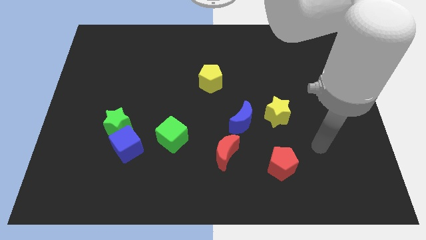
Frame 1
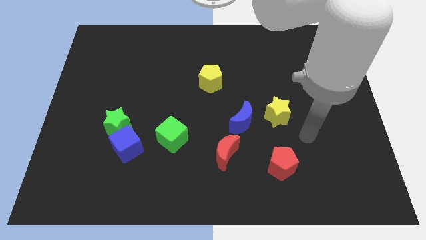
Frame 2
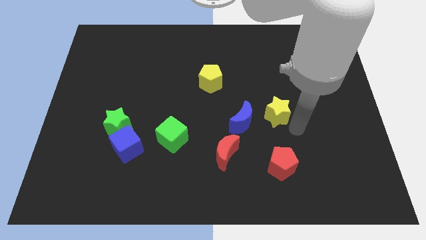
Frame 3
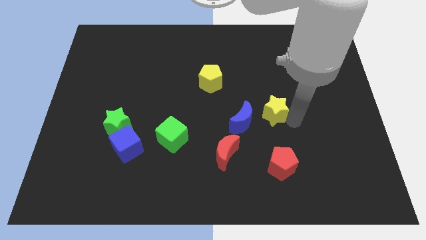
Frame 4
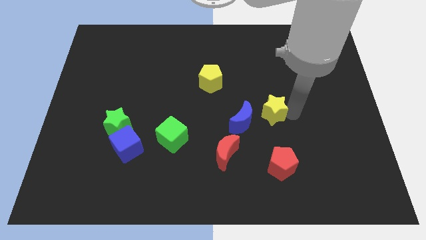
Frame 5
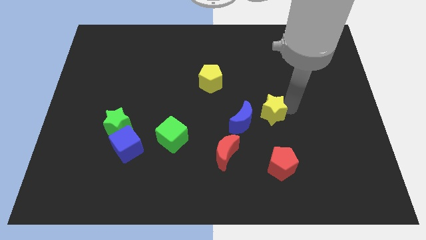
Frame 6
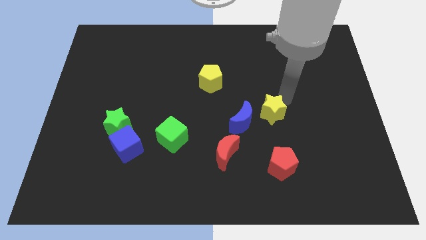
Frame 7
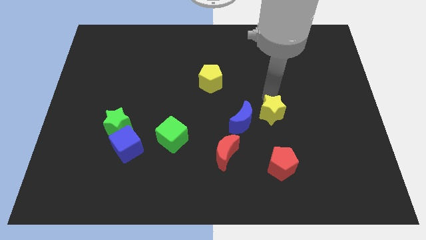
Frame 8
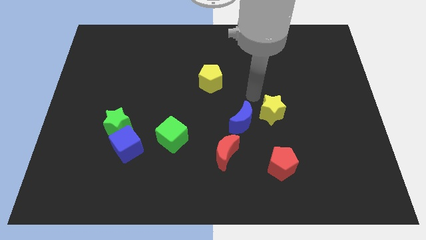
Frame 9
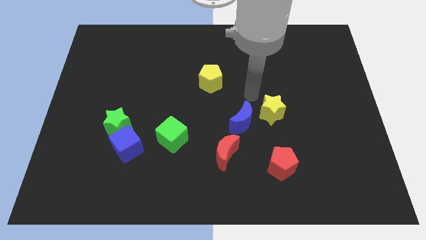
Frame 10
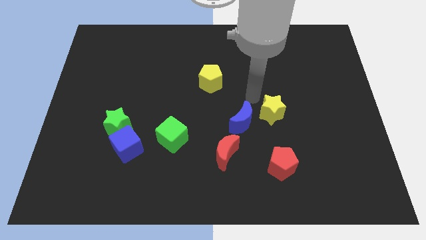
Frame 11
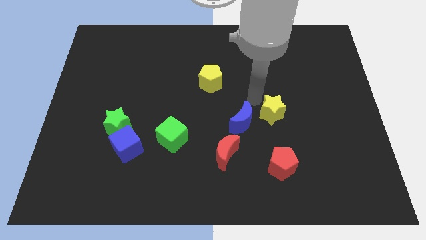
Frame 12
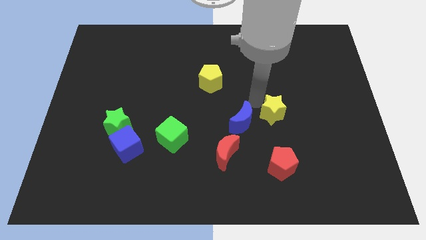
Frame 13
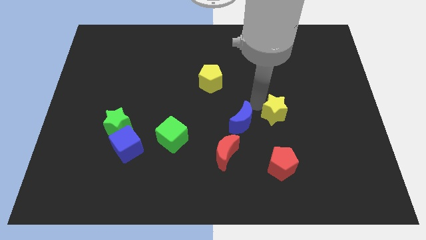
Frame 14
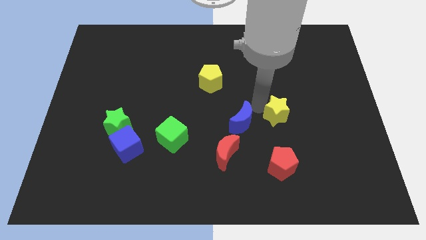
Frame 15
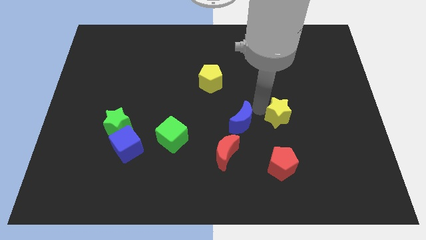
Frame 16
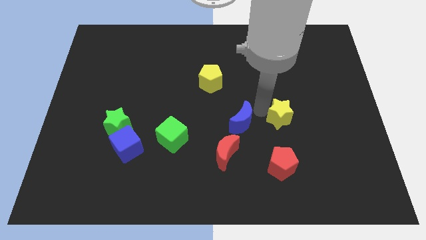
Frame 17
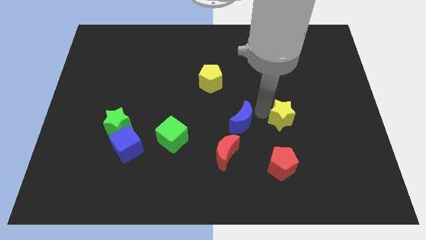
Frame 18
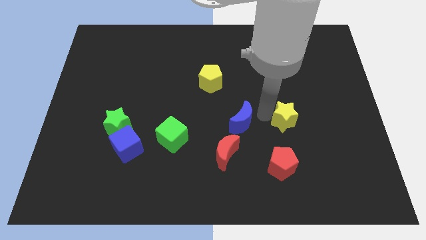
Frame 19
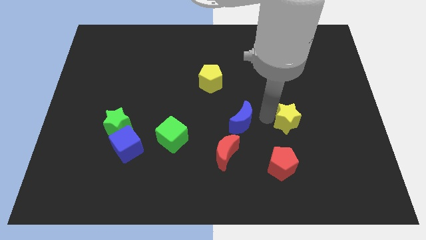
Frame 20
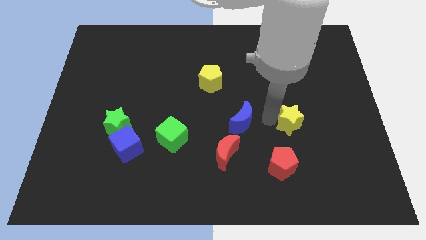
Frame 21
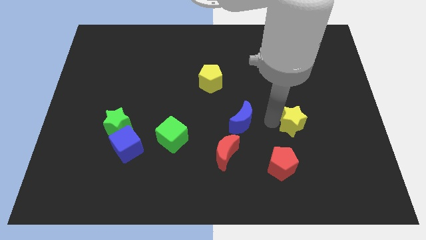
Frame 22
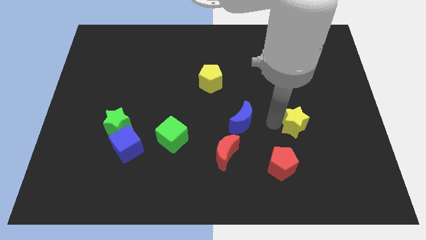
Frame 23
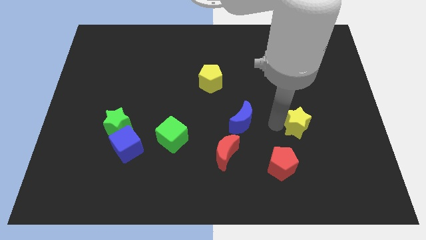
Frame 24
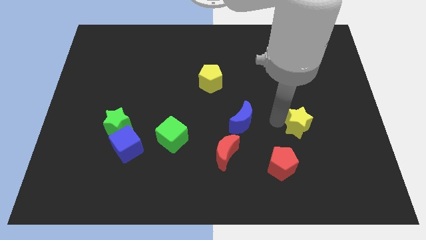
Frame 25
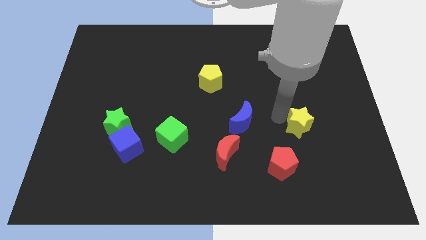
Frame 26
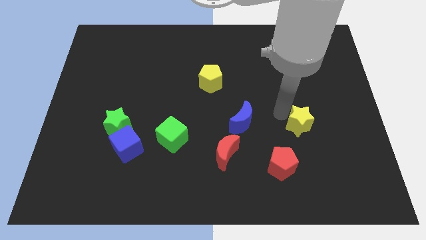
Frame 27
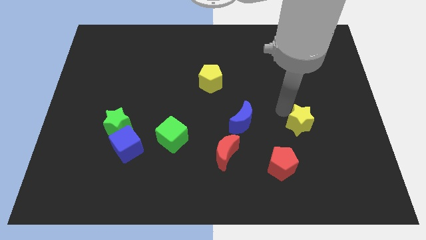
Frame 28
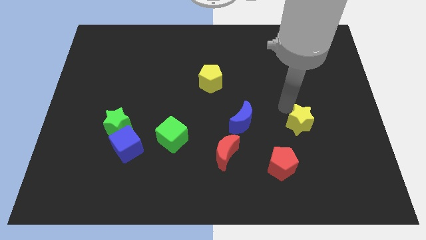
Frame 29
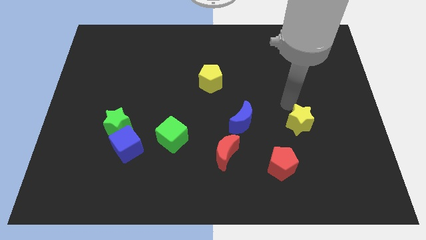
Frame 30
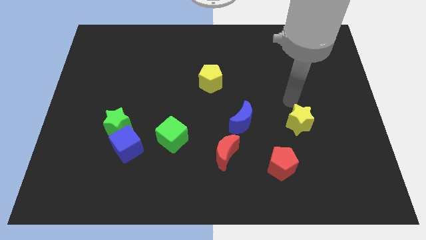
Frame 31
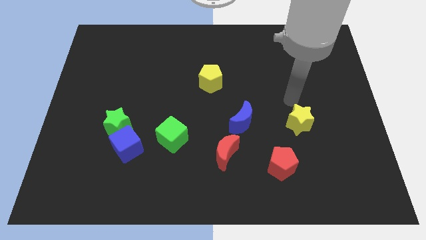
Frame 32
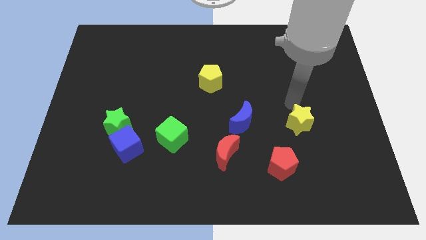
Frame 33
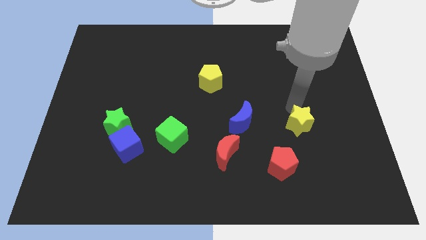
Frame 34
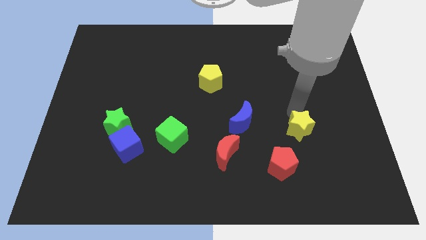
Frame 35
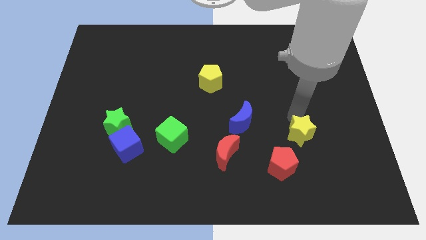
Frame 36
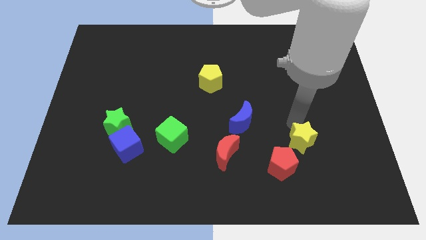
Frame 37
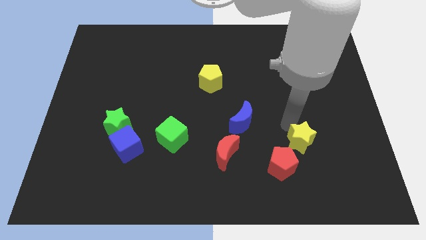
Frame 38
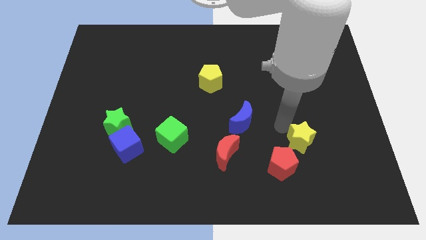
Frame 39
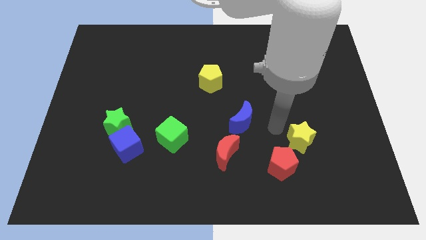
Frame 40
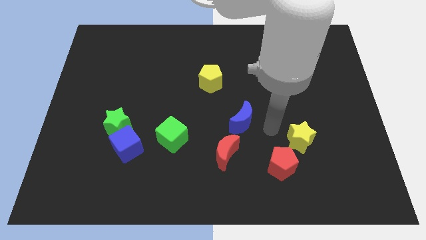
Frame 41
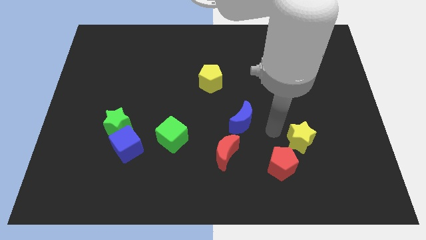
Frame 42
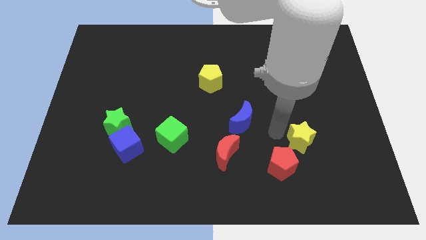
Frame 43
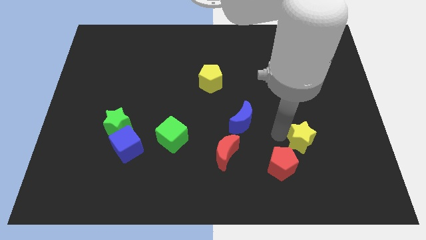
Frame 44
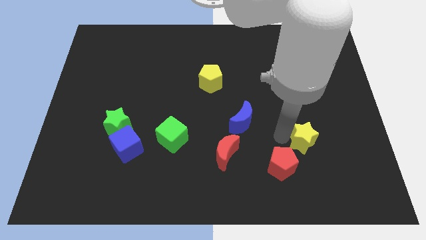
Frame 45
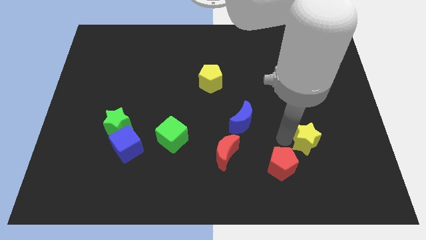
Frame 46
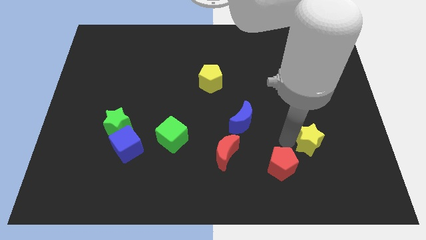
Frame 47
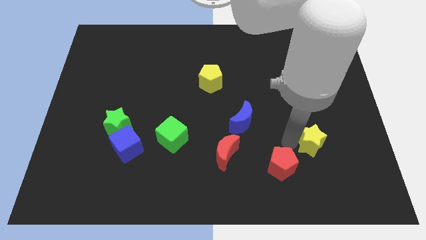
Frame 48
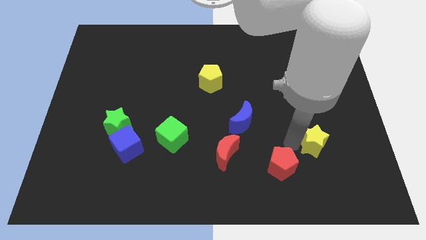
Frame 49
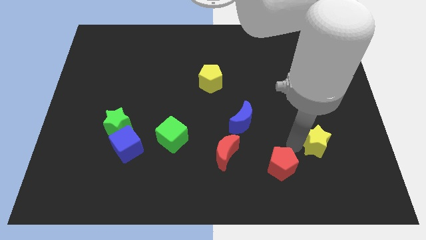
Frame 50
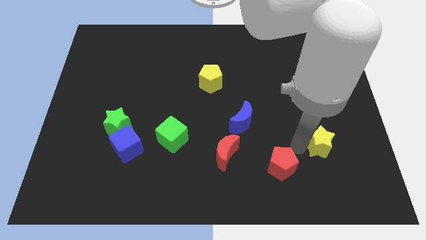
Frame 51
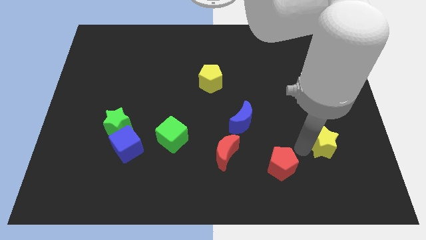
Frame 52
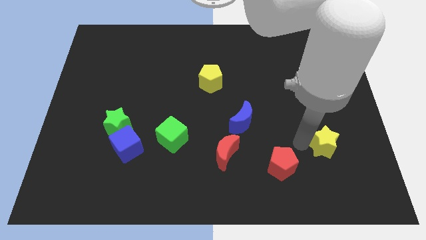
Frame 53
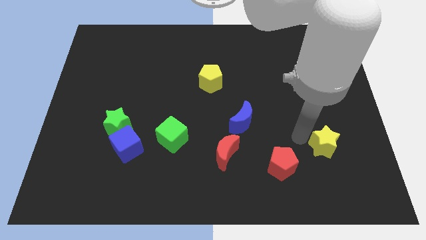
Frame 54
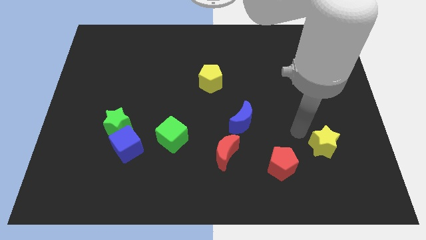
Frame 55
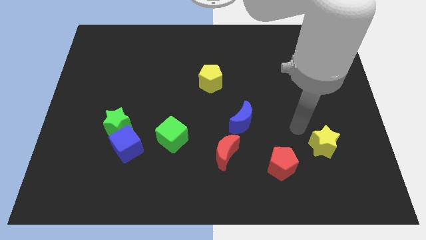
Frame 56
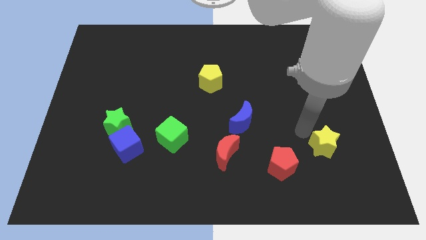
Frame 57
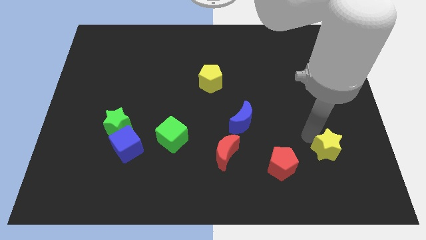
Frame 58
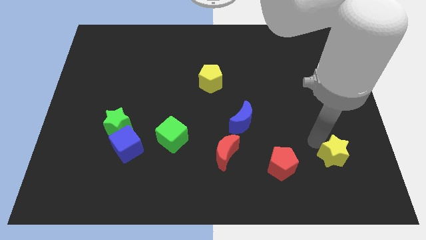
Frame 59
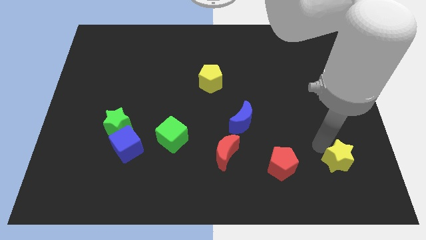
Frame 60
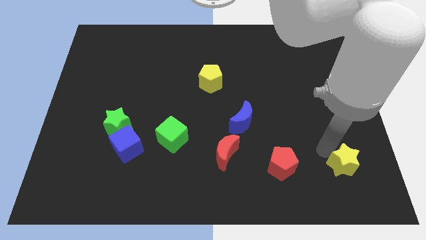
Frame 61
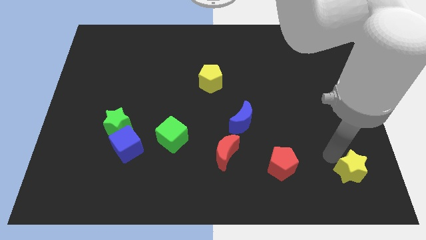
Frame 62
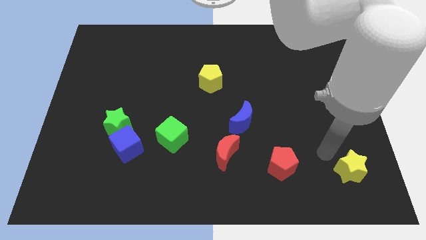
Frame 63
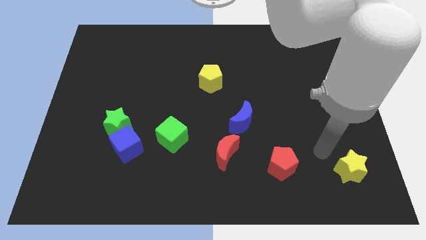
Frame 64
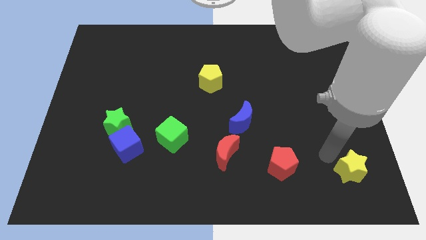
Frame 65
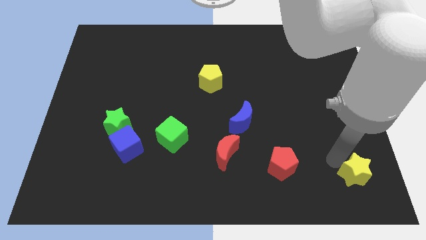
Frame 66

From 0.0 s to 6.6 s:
push the yellow star to the bottom right

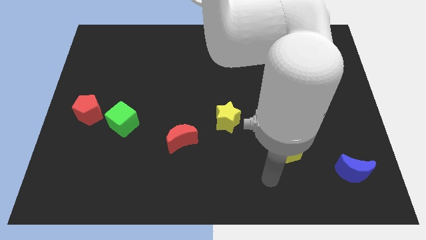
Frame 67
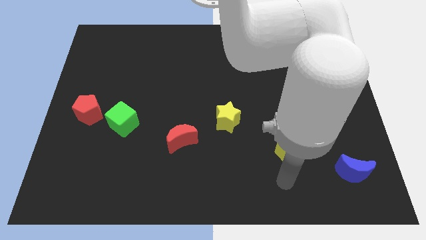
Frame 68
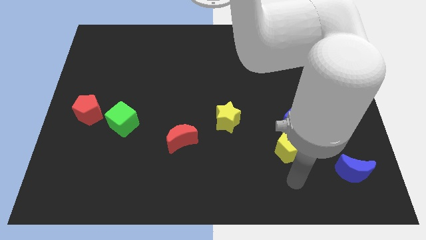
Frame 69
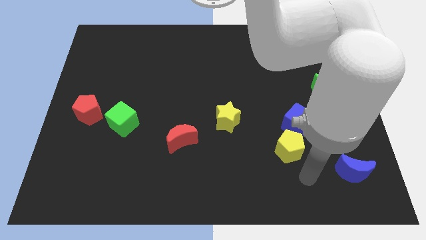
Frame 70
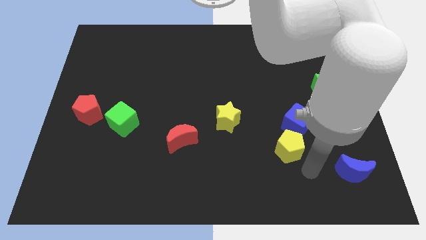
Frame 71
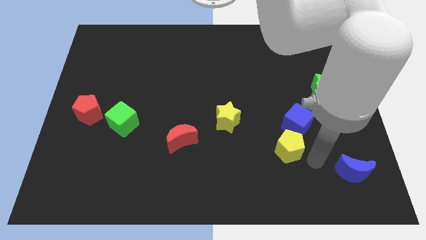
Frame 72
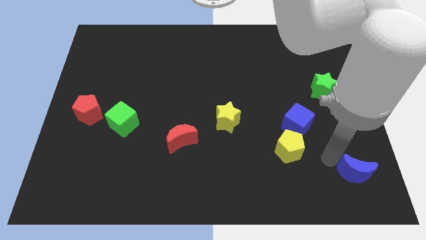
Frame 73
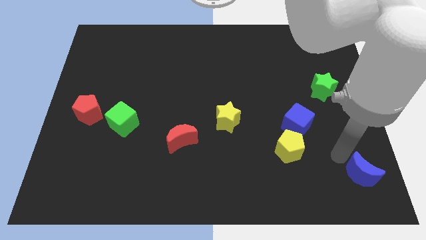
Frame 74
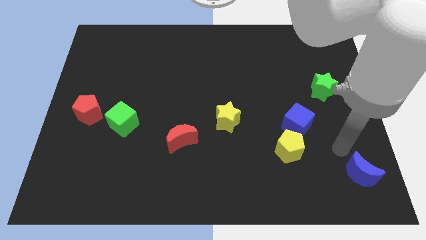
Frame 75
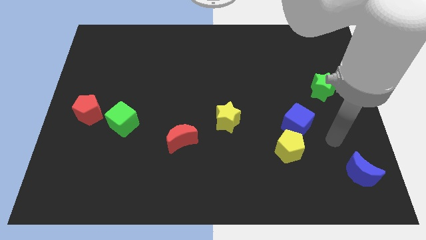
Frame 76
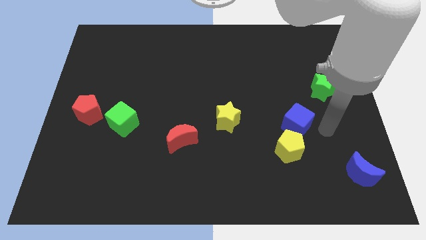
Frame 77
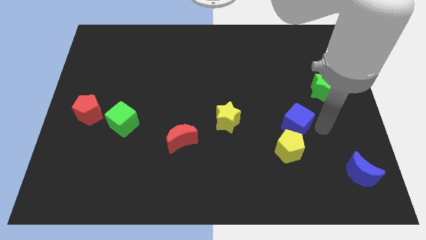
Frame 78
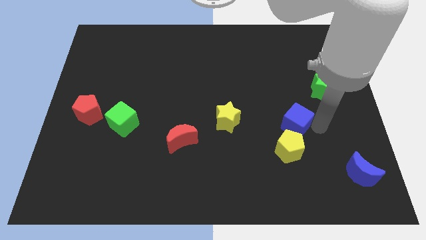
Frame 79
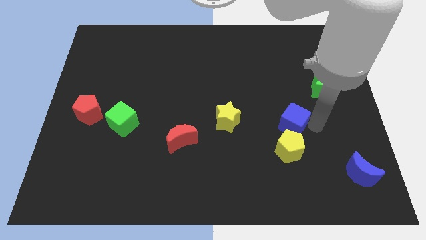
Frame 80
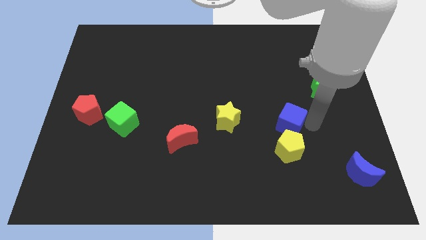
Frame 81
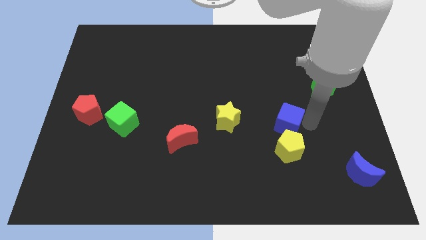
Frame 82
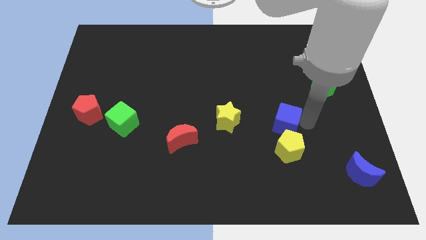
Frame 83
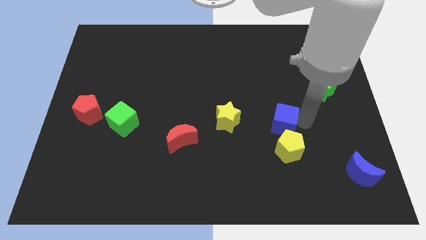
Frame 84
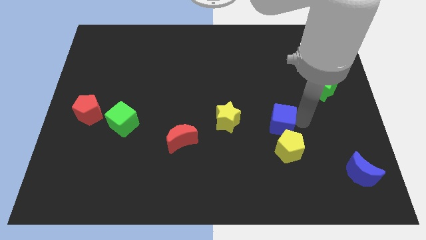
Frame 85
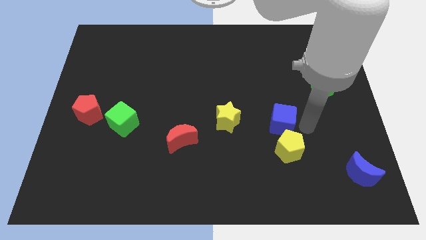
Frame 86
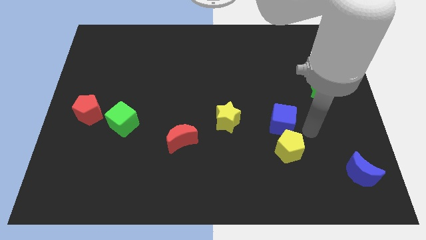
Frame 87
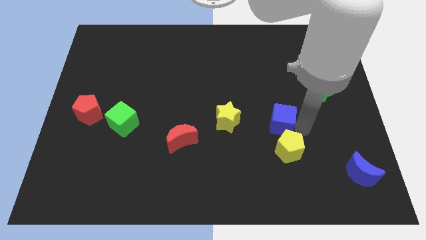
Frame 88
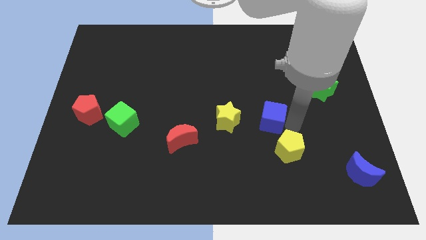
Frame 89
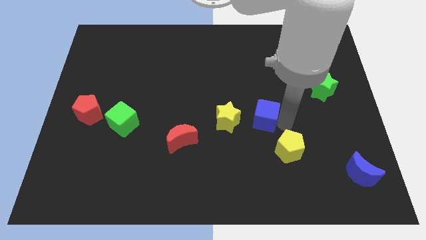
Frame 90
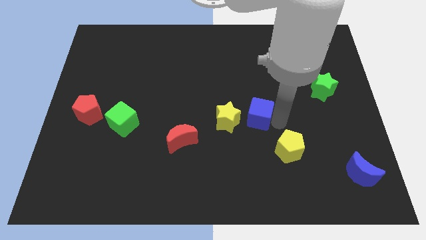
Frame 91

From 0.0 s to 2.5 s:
slide the blue cube to the middle of the board
